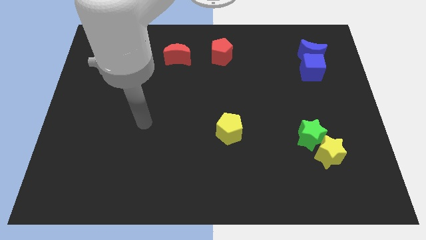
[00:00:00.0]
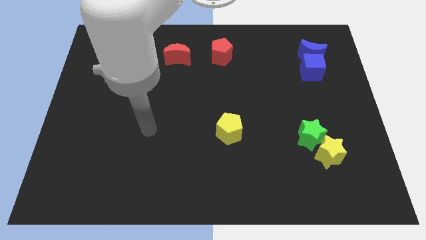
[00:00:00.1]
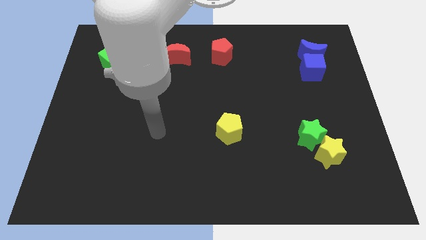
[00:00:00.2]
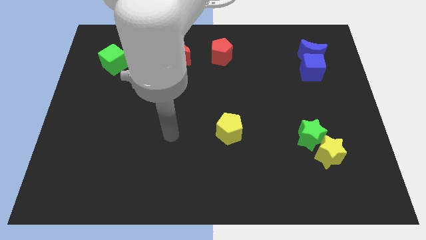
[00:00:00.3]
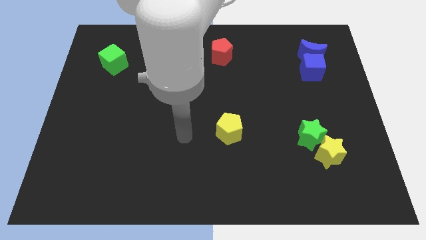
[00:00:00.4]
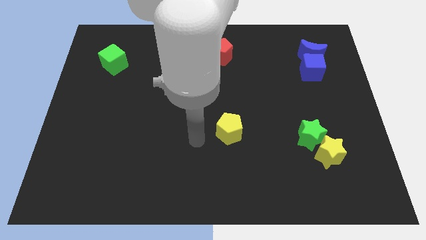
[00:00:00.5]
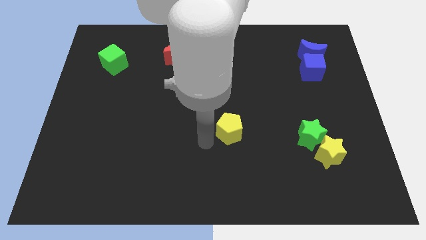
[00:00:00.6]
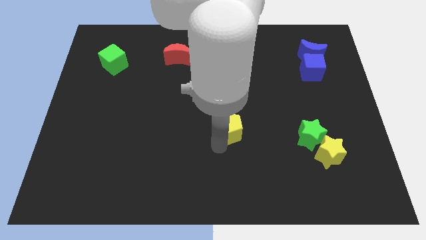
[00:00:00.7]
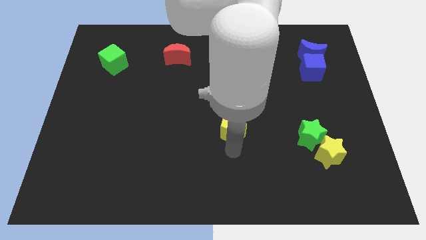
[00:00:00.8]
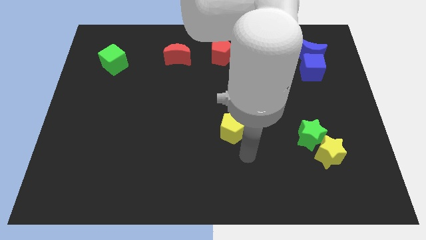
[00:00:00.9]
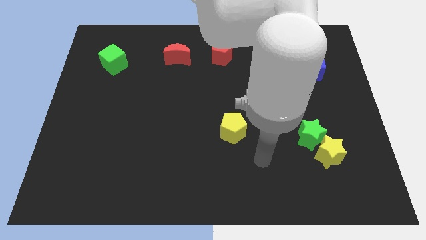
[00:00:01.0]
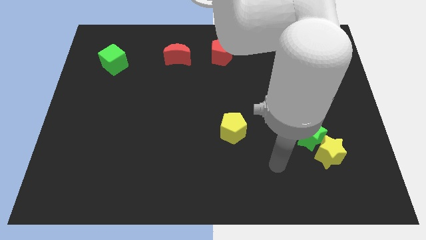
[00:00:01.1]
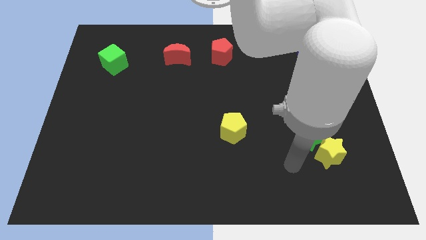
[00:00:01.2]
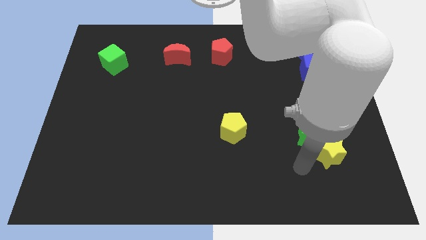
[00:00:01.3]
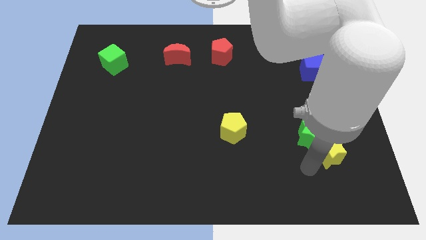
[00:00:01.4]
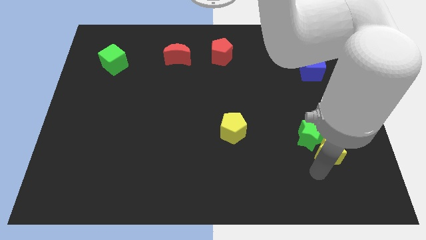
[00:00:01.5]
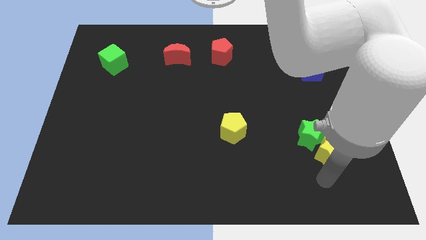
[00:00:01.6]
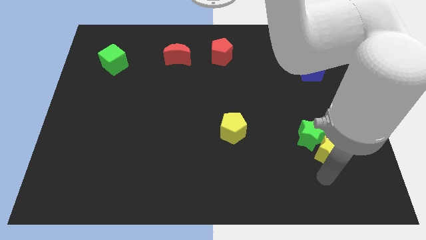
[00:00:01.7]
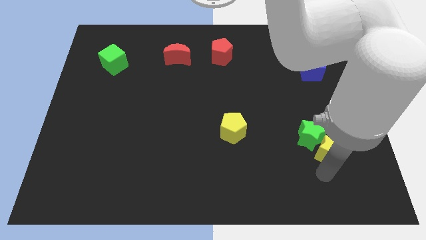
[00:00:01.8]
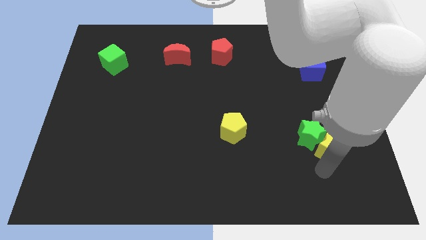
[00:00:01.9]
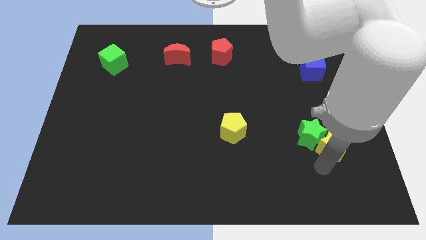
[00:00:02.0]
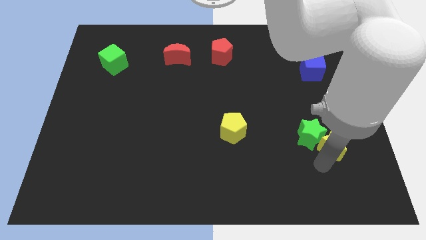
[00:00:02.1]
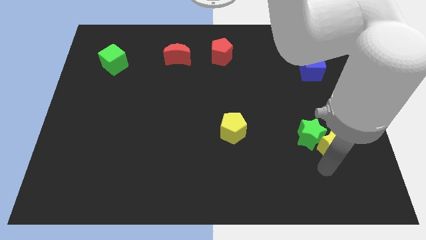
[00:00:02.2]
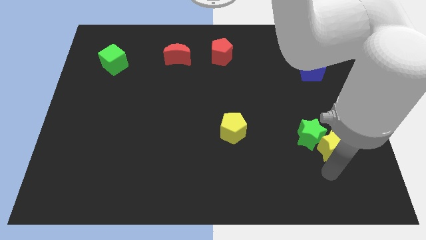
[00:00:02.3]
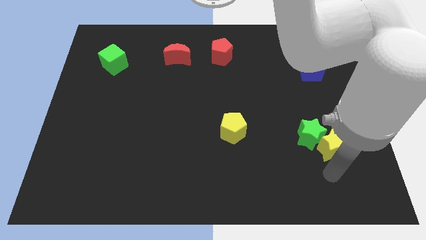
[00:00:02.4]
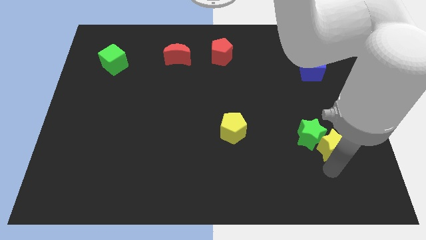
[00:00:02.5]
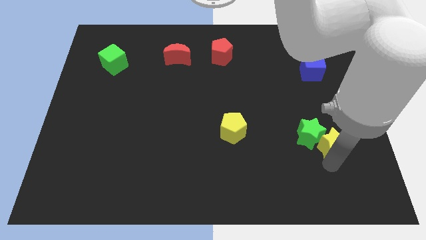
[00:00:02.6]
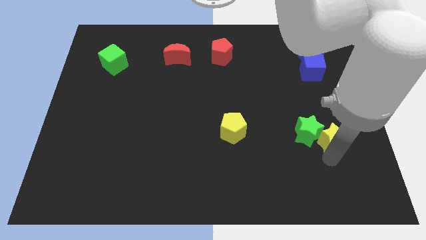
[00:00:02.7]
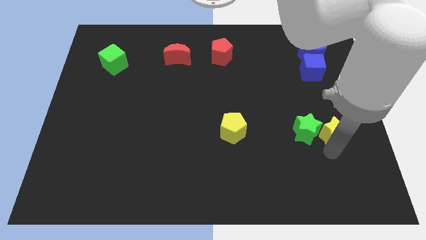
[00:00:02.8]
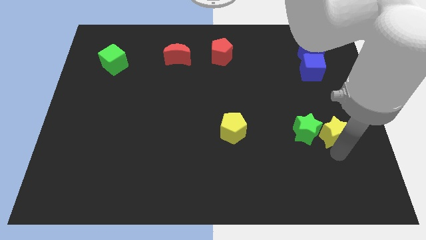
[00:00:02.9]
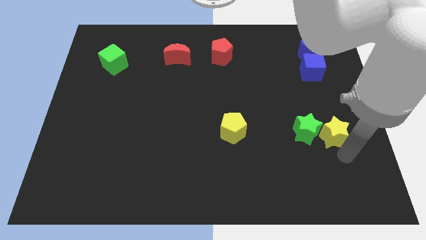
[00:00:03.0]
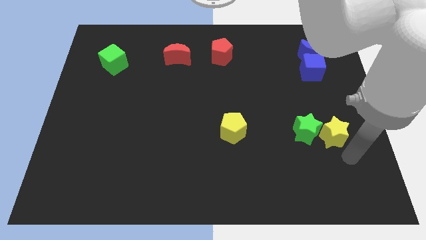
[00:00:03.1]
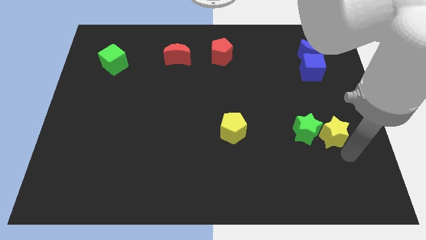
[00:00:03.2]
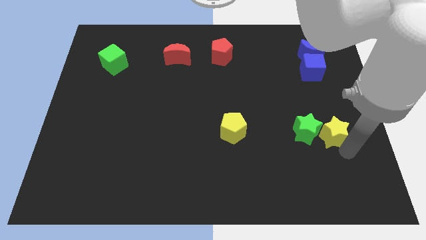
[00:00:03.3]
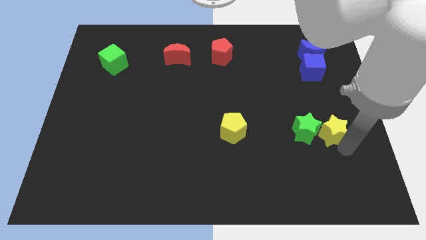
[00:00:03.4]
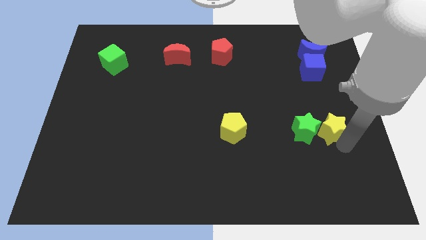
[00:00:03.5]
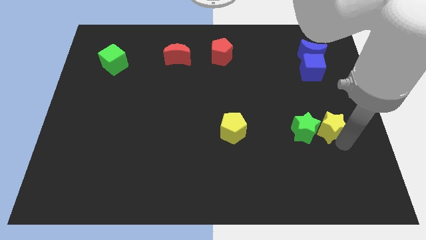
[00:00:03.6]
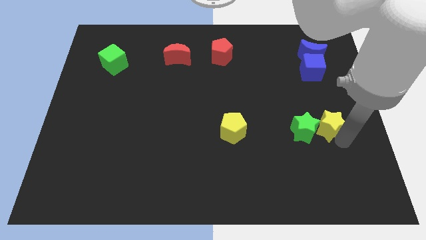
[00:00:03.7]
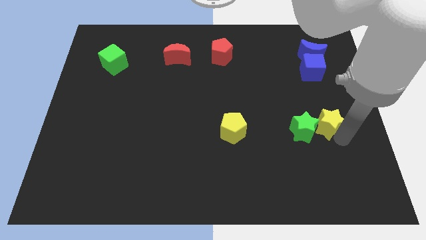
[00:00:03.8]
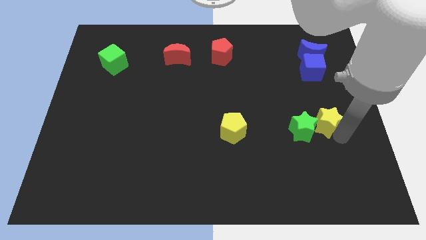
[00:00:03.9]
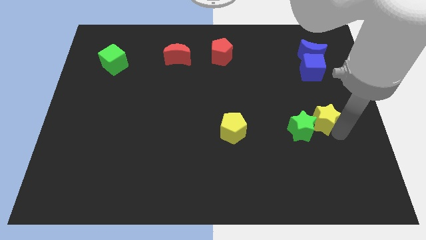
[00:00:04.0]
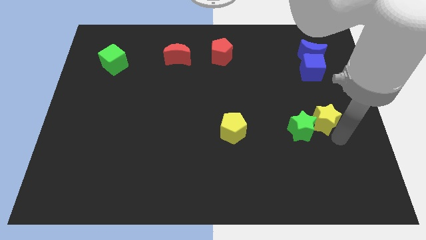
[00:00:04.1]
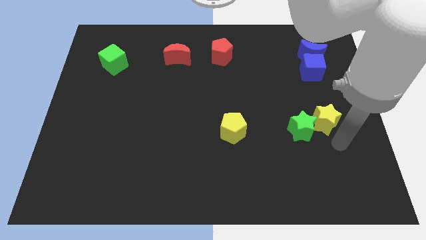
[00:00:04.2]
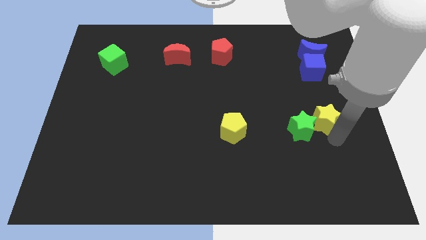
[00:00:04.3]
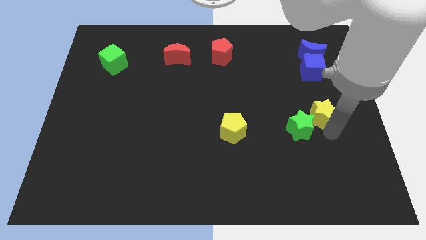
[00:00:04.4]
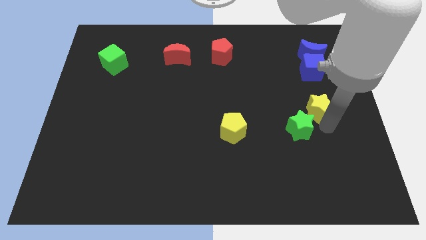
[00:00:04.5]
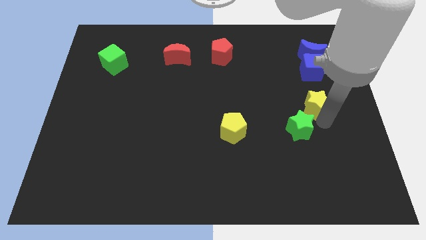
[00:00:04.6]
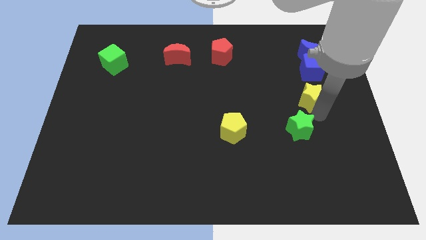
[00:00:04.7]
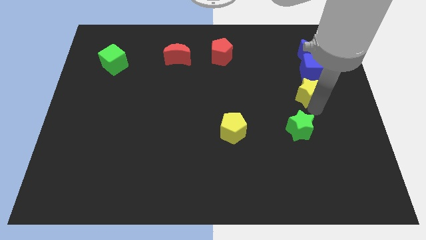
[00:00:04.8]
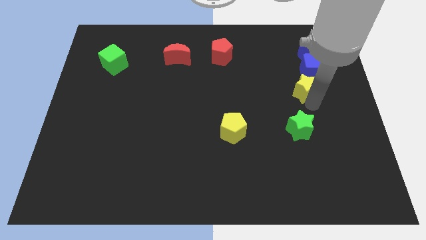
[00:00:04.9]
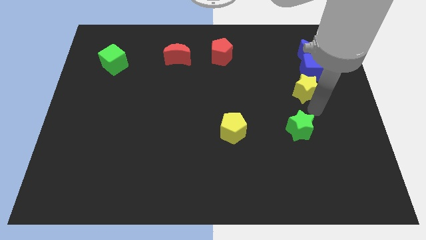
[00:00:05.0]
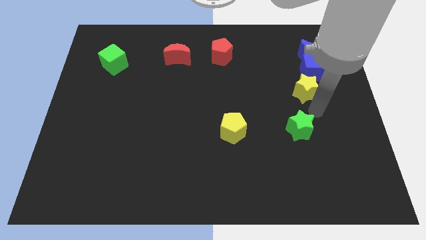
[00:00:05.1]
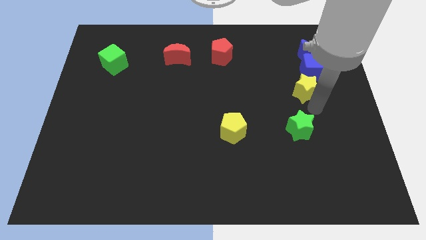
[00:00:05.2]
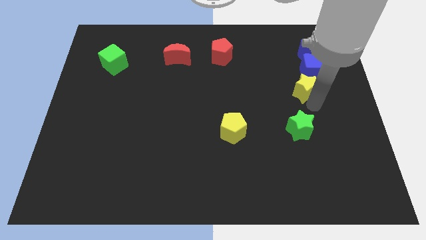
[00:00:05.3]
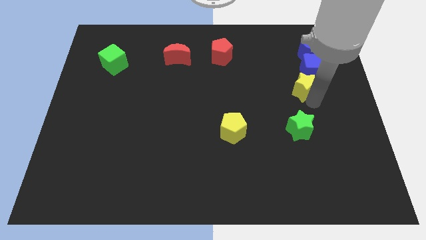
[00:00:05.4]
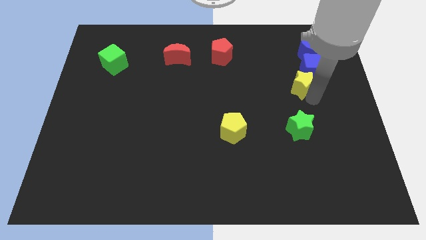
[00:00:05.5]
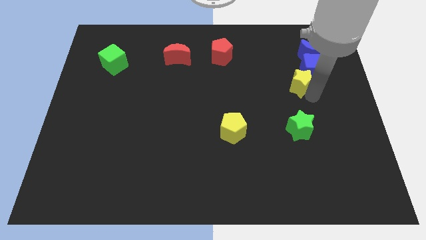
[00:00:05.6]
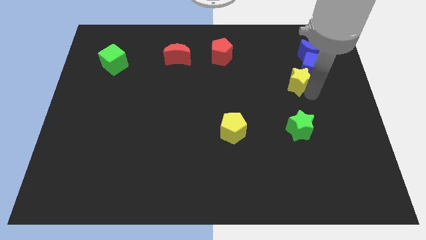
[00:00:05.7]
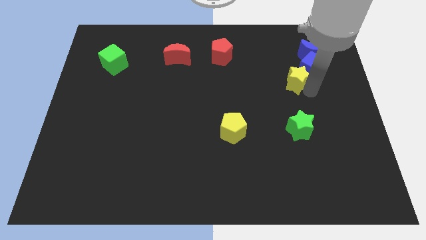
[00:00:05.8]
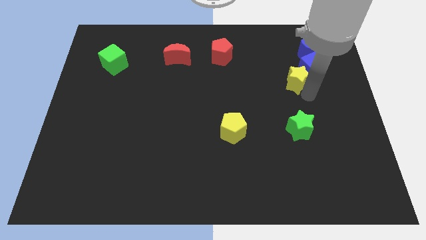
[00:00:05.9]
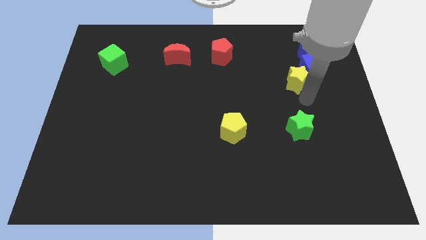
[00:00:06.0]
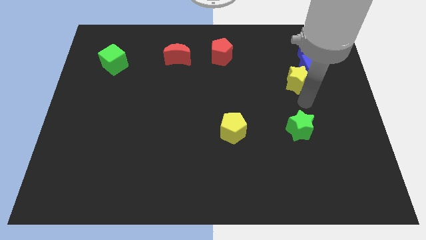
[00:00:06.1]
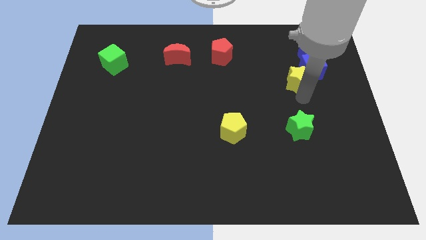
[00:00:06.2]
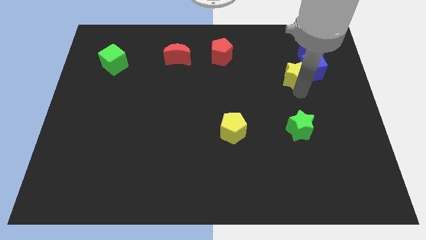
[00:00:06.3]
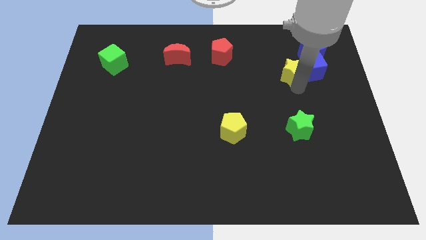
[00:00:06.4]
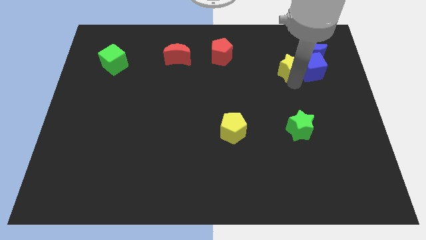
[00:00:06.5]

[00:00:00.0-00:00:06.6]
push the yellow star to the top left side of the blue cube
